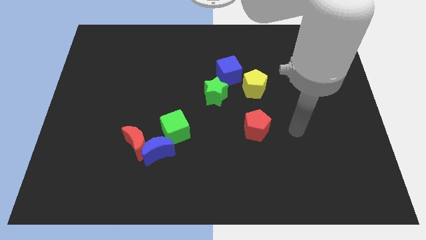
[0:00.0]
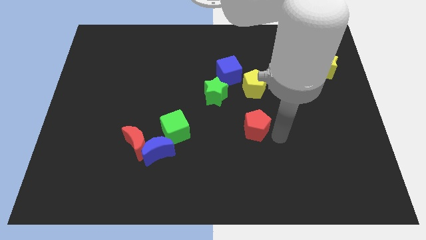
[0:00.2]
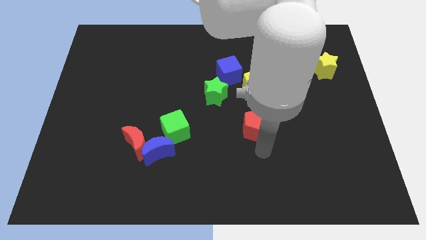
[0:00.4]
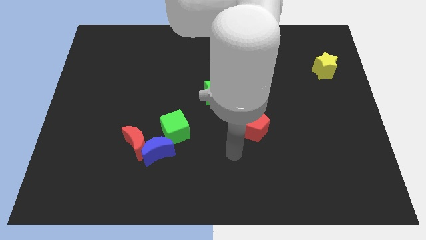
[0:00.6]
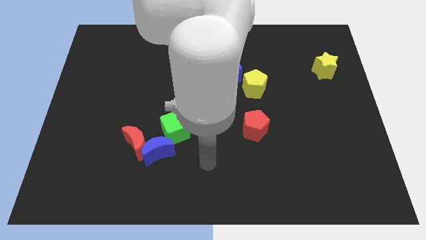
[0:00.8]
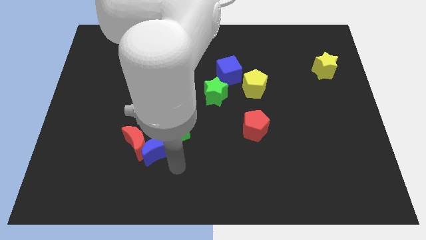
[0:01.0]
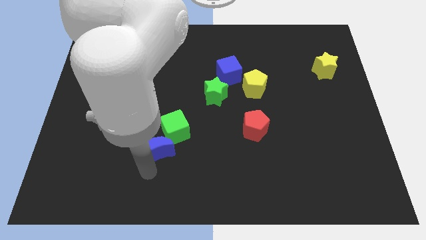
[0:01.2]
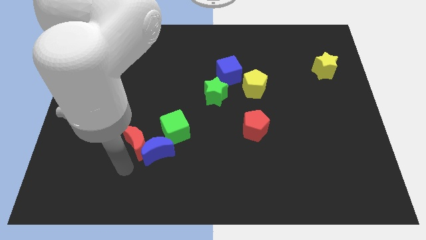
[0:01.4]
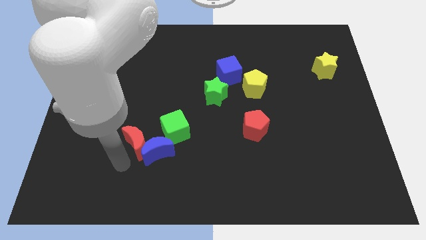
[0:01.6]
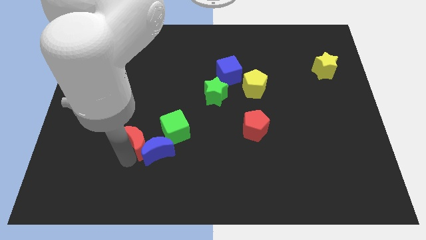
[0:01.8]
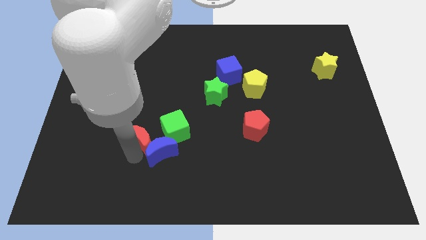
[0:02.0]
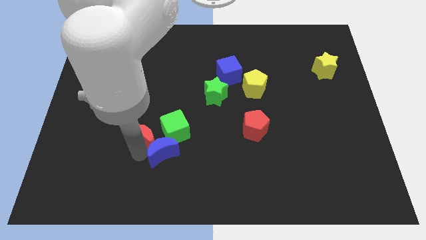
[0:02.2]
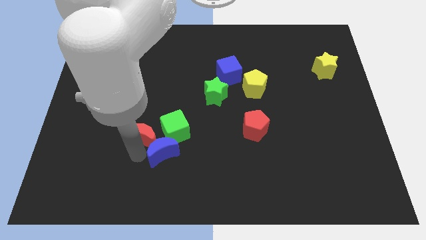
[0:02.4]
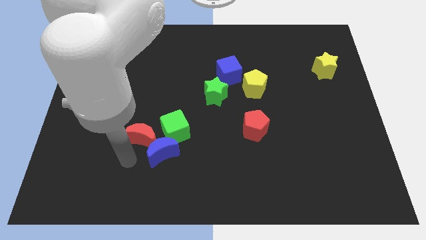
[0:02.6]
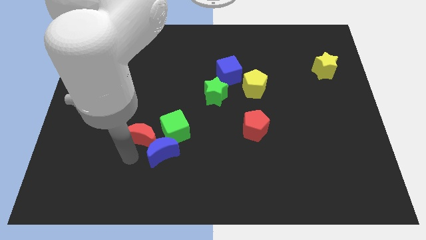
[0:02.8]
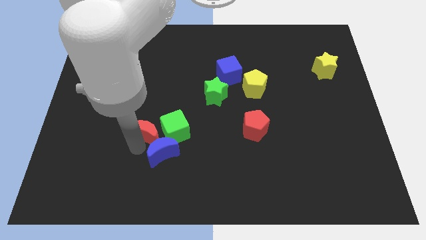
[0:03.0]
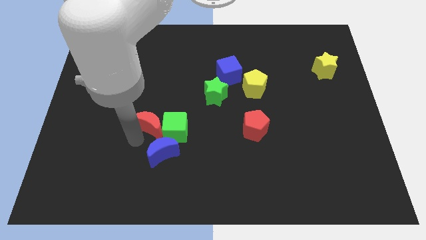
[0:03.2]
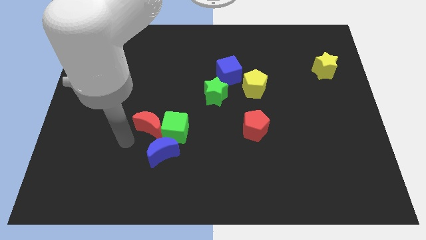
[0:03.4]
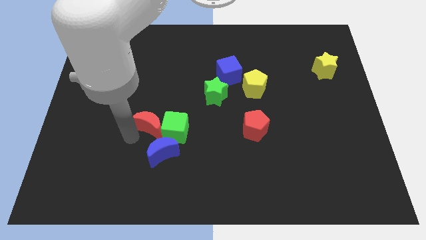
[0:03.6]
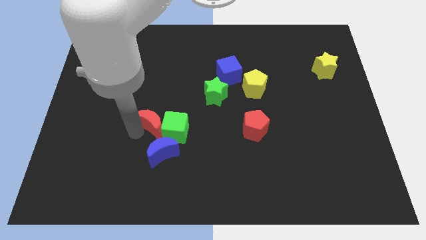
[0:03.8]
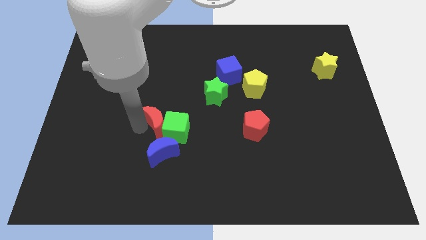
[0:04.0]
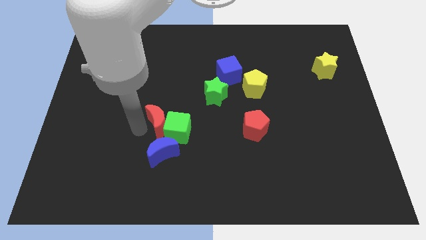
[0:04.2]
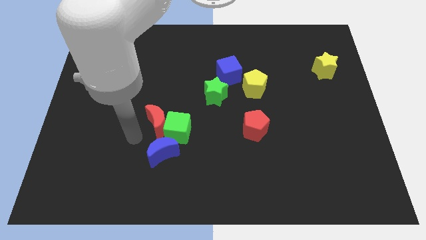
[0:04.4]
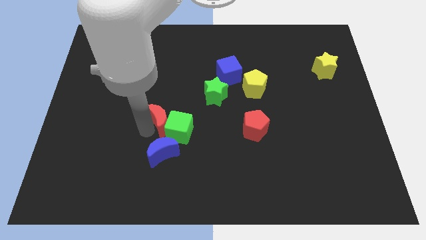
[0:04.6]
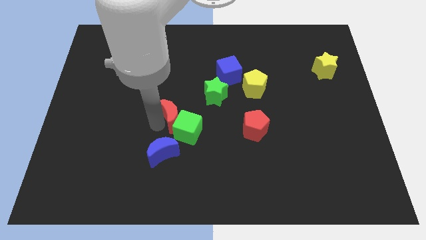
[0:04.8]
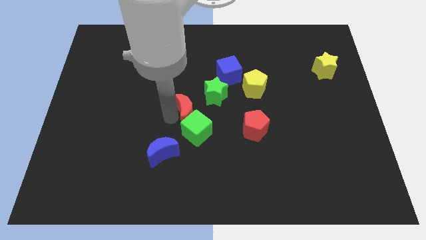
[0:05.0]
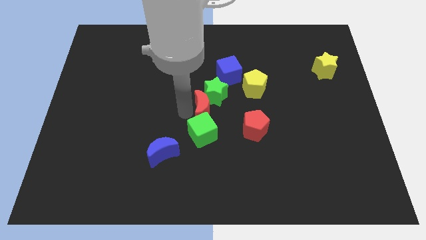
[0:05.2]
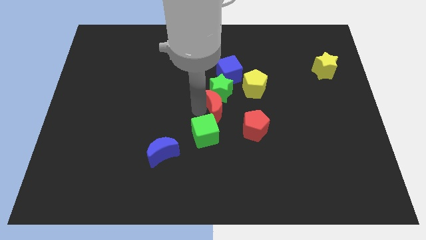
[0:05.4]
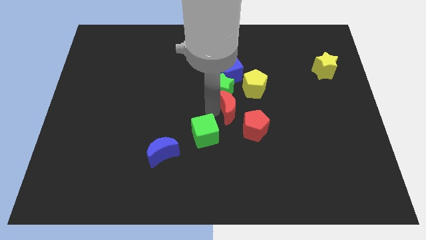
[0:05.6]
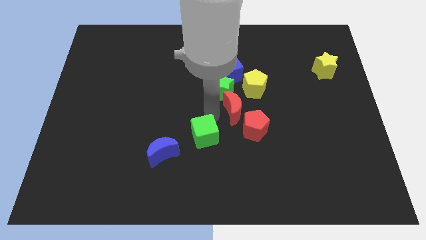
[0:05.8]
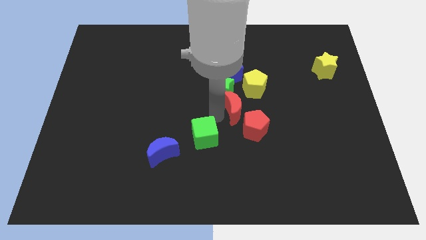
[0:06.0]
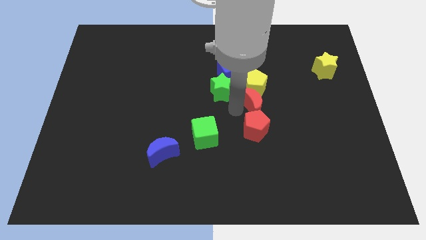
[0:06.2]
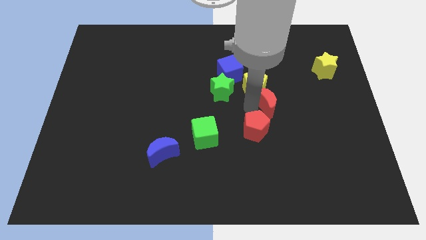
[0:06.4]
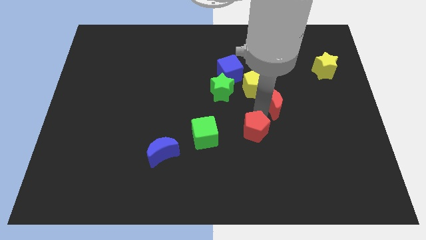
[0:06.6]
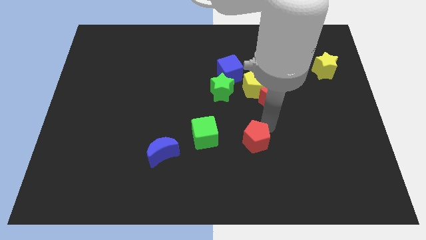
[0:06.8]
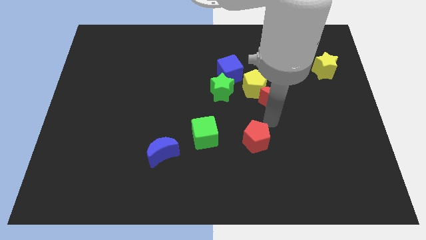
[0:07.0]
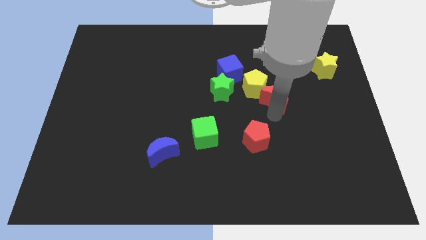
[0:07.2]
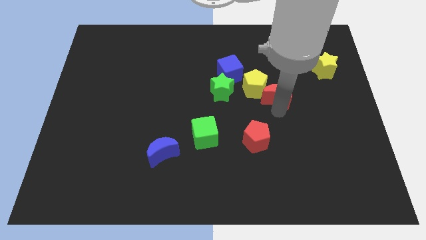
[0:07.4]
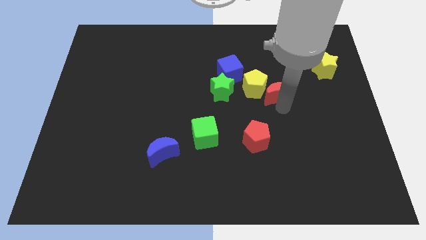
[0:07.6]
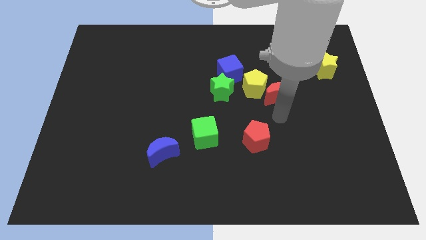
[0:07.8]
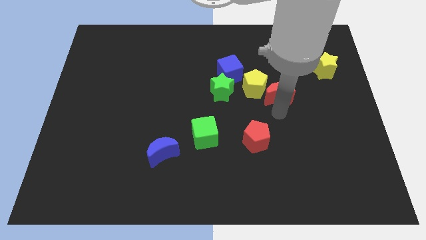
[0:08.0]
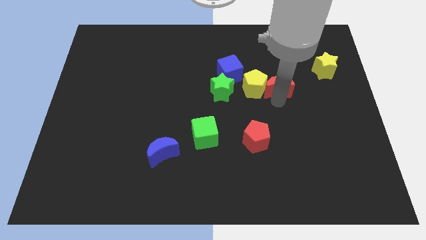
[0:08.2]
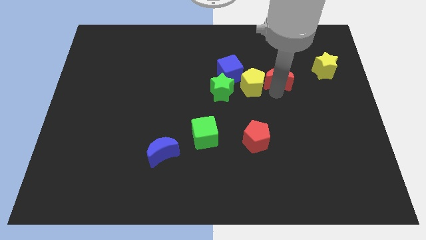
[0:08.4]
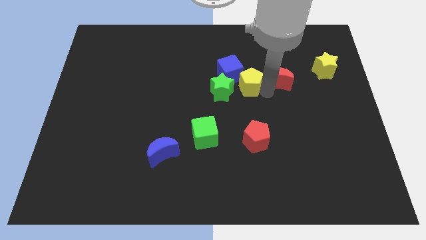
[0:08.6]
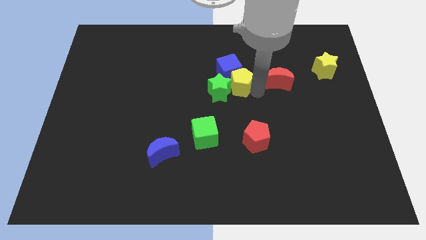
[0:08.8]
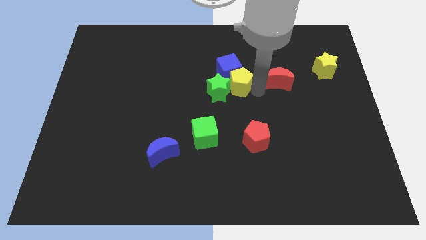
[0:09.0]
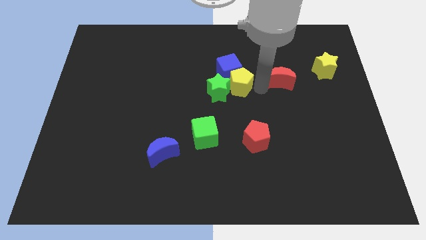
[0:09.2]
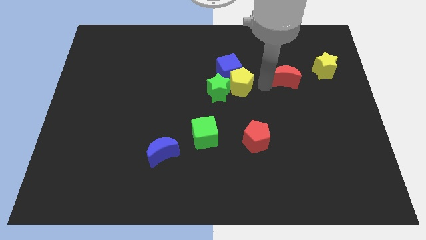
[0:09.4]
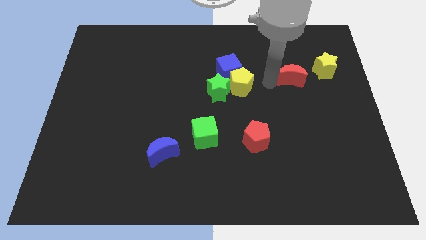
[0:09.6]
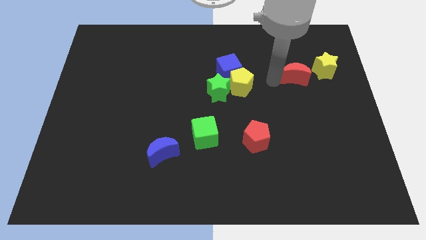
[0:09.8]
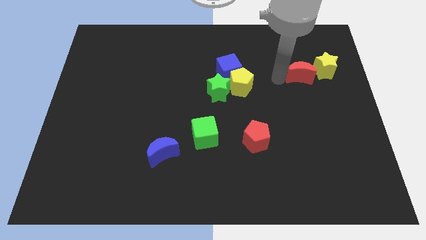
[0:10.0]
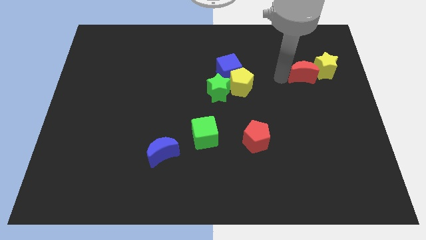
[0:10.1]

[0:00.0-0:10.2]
push the red moon to the yellow star

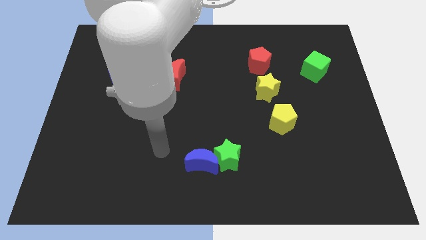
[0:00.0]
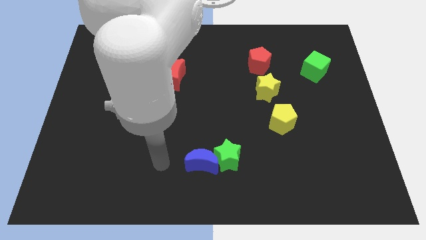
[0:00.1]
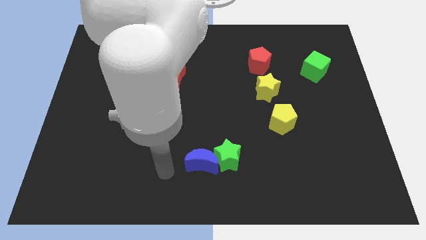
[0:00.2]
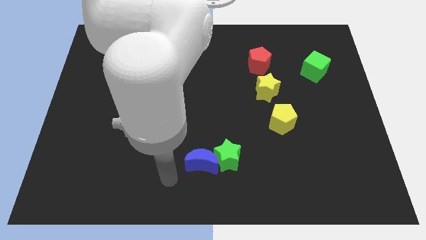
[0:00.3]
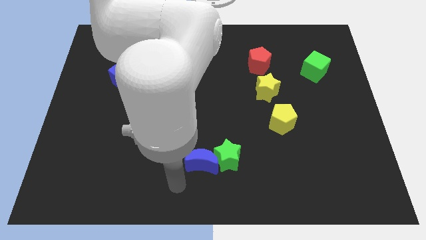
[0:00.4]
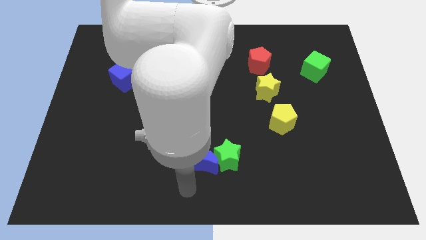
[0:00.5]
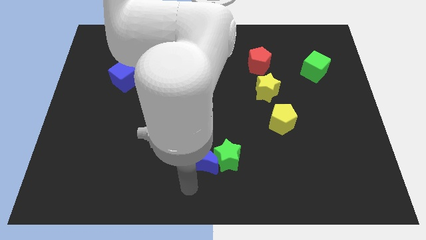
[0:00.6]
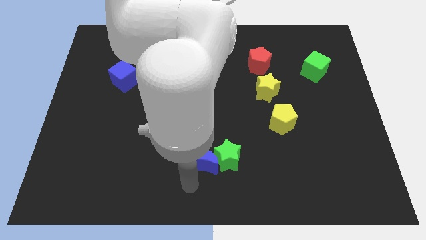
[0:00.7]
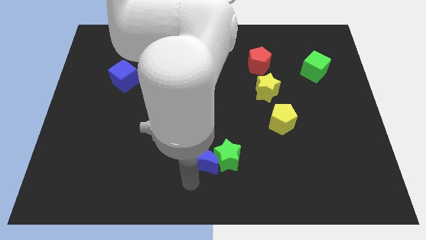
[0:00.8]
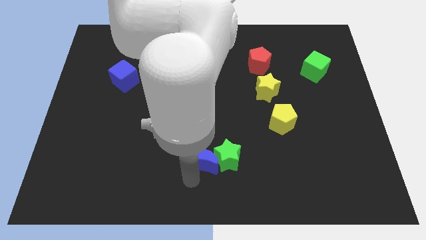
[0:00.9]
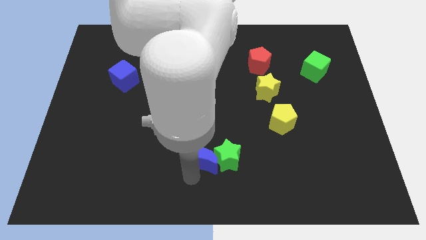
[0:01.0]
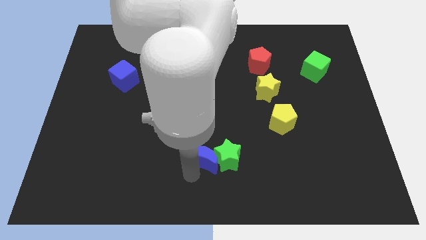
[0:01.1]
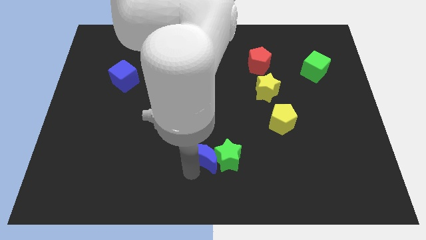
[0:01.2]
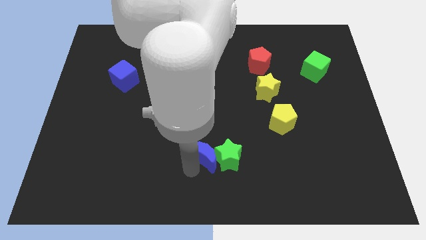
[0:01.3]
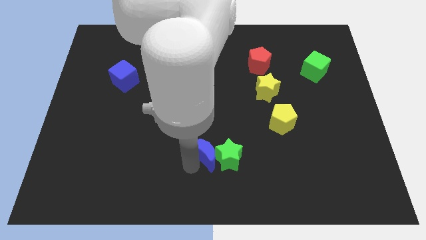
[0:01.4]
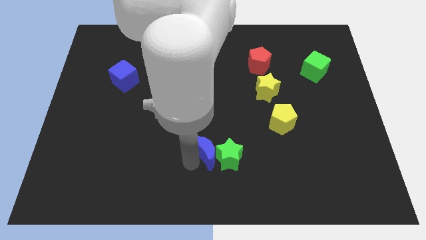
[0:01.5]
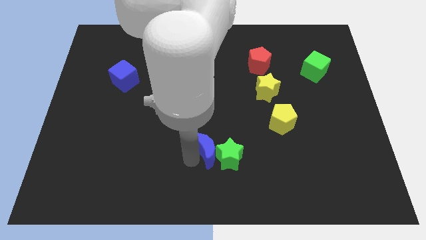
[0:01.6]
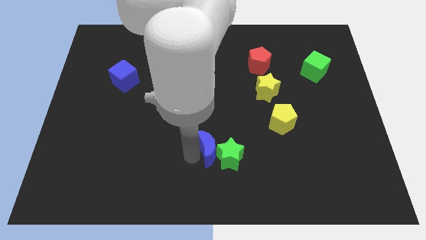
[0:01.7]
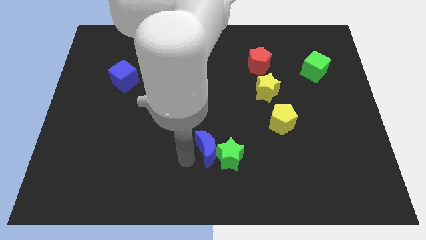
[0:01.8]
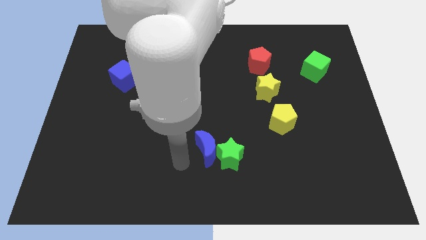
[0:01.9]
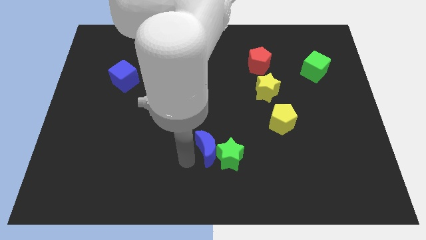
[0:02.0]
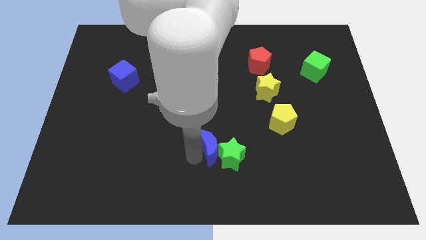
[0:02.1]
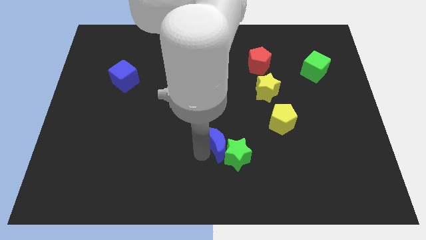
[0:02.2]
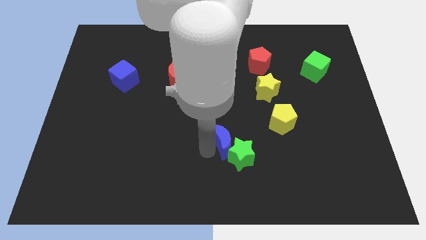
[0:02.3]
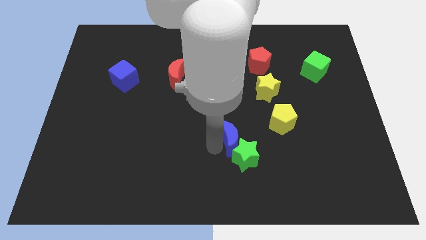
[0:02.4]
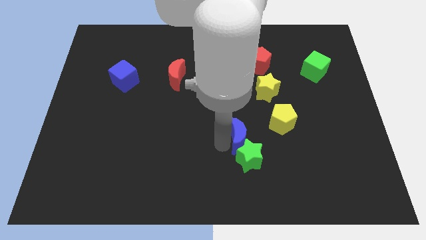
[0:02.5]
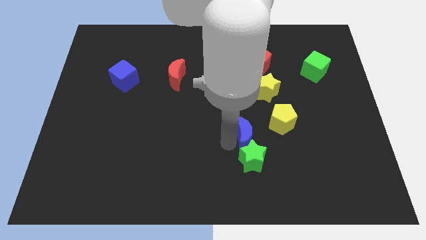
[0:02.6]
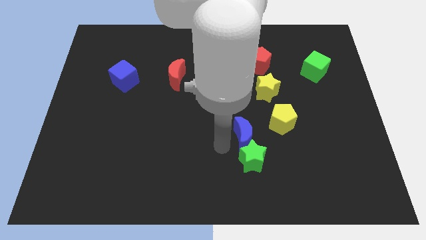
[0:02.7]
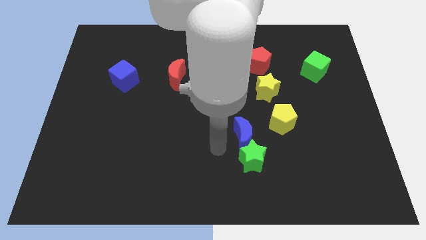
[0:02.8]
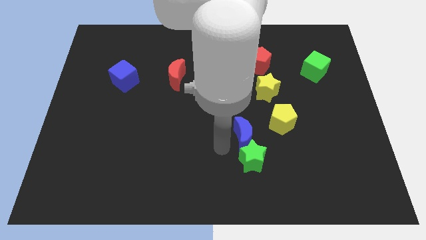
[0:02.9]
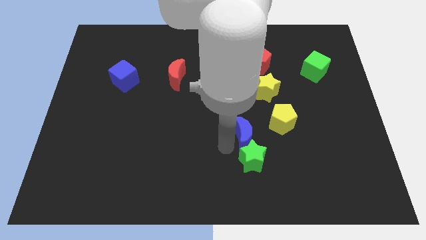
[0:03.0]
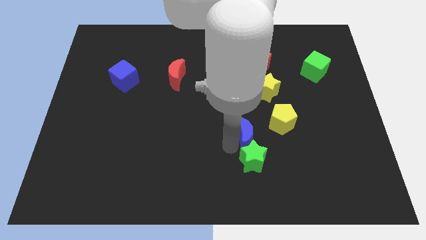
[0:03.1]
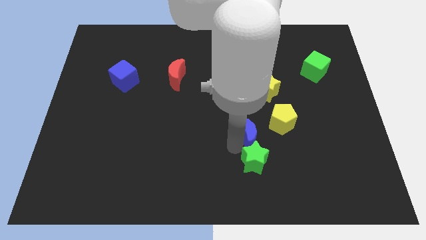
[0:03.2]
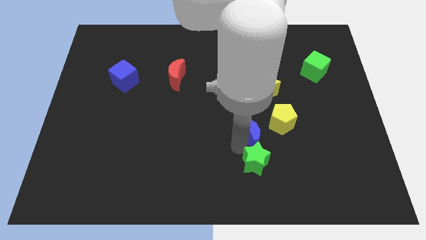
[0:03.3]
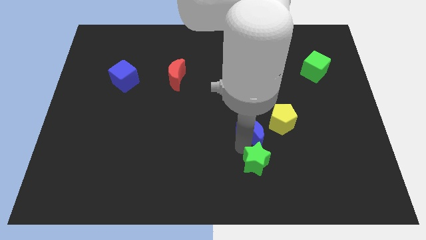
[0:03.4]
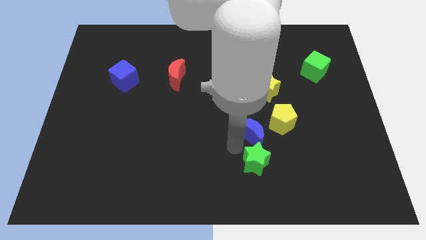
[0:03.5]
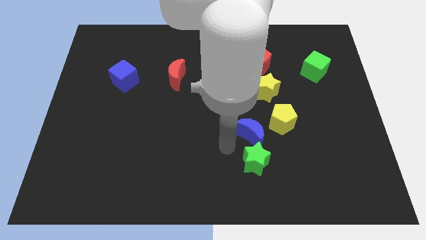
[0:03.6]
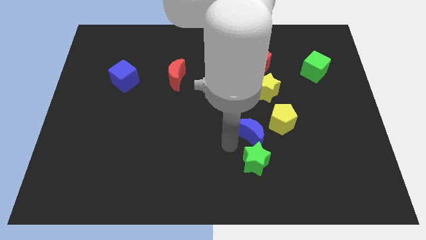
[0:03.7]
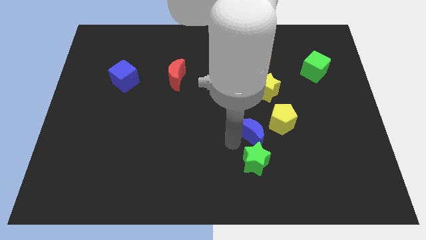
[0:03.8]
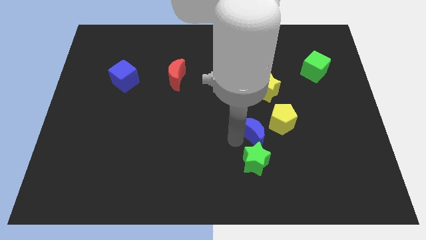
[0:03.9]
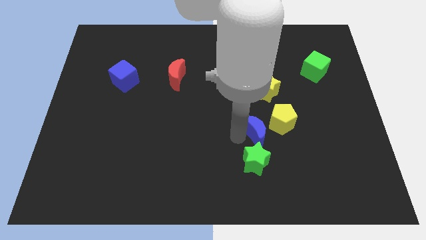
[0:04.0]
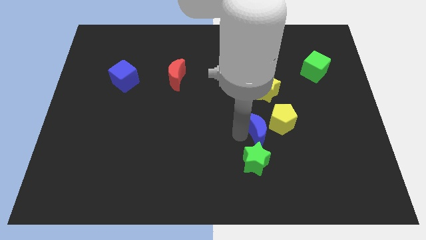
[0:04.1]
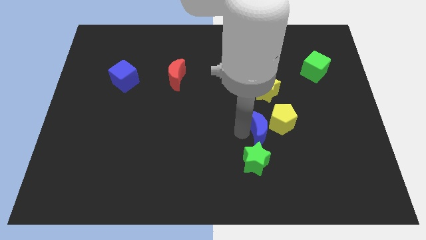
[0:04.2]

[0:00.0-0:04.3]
push the blue moon close to the yellow pentagon
